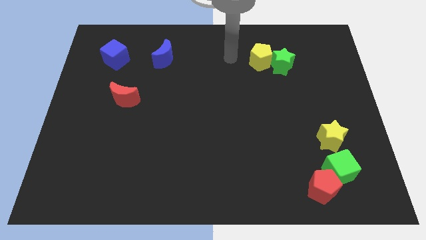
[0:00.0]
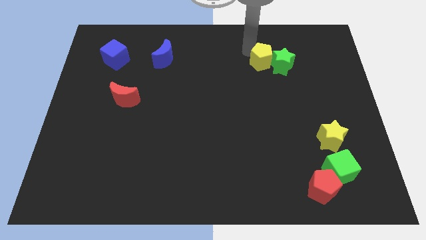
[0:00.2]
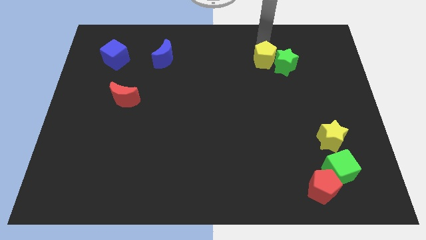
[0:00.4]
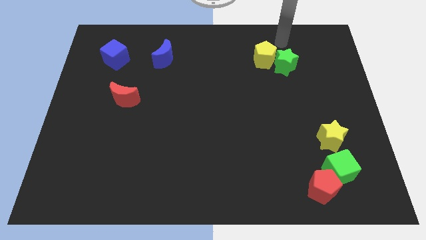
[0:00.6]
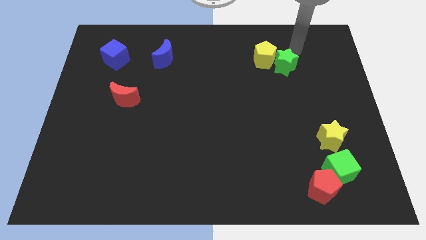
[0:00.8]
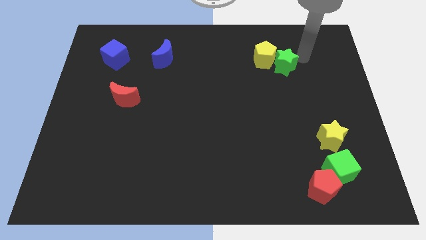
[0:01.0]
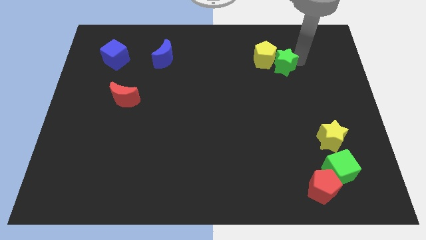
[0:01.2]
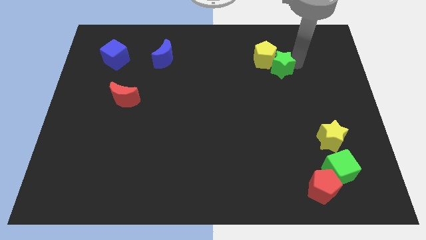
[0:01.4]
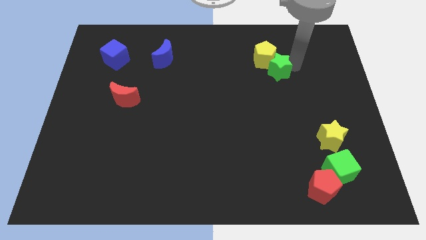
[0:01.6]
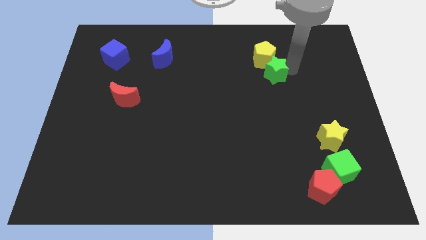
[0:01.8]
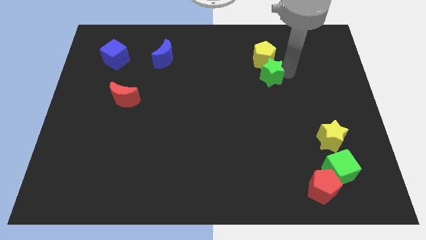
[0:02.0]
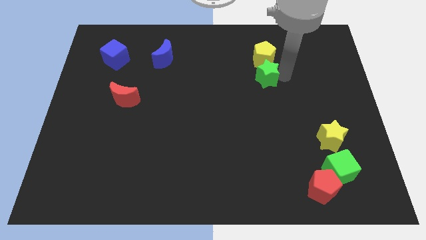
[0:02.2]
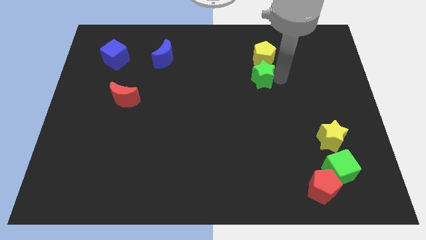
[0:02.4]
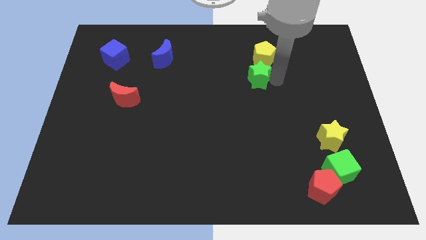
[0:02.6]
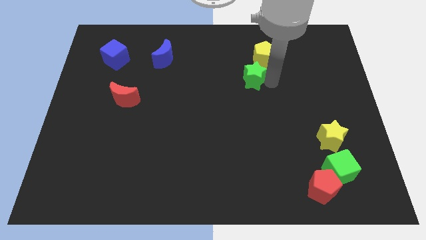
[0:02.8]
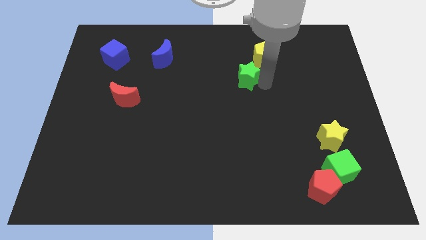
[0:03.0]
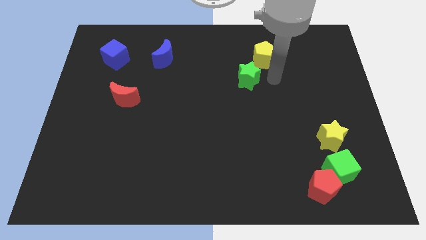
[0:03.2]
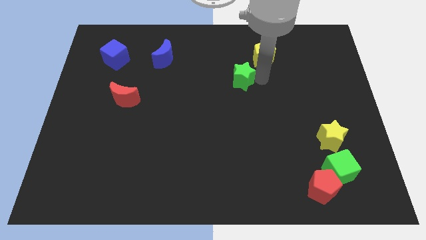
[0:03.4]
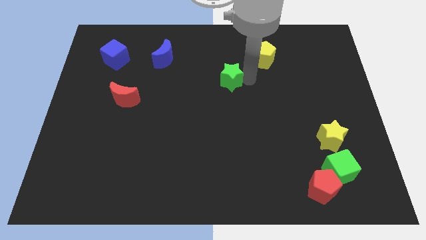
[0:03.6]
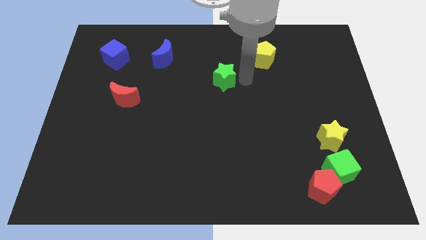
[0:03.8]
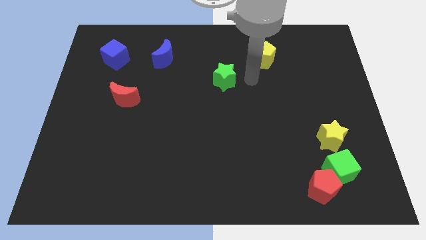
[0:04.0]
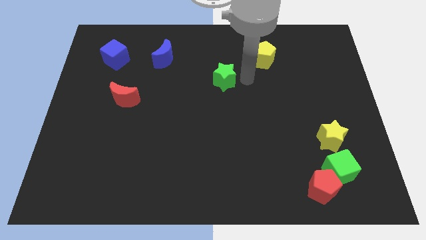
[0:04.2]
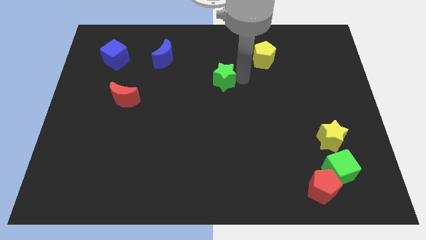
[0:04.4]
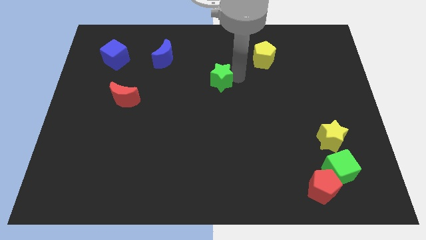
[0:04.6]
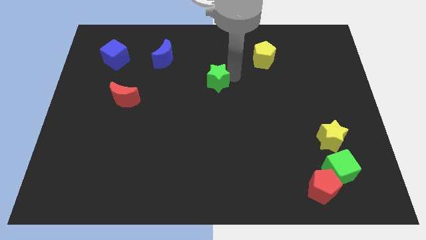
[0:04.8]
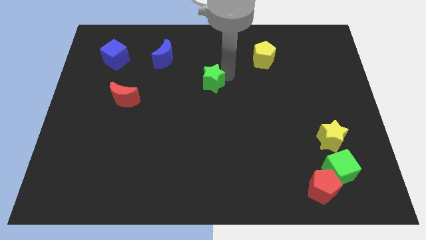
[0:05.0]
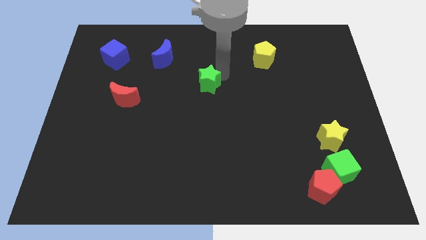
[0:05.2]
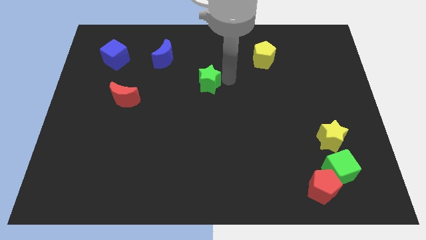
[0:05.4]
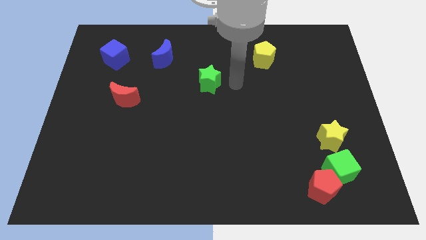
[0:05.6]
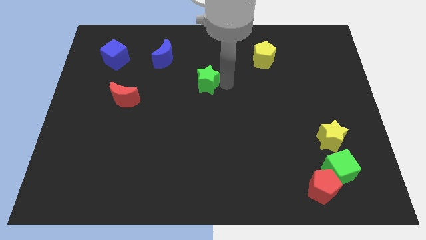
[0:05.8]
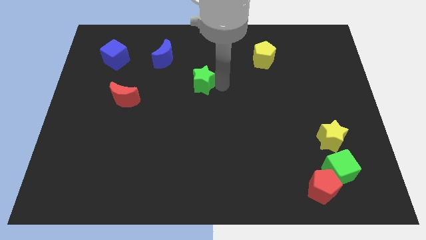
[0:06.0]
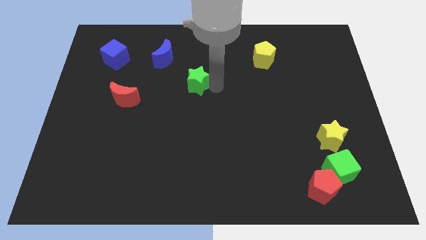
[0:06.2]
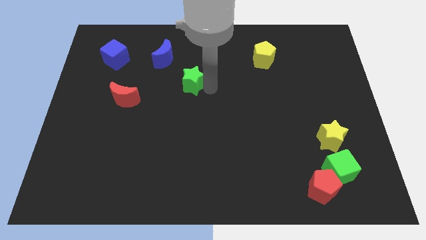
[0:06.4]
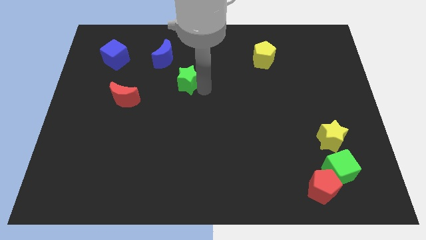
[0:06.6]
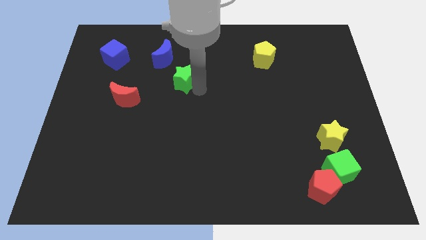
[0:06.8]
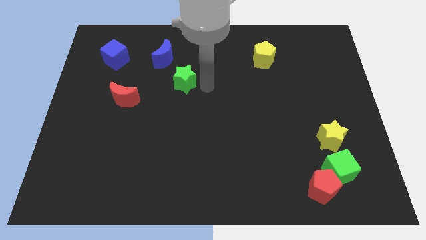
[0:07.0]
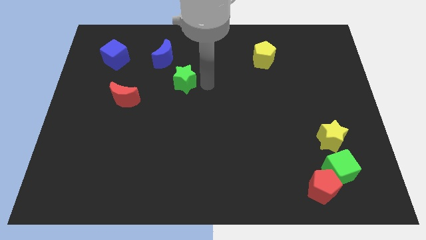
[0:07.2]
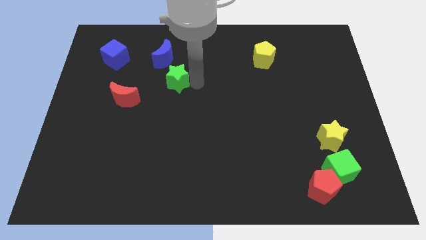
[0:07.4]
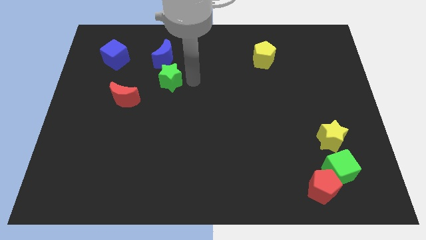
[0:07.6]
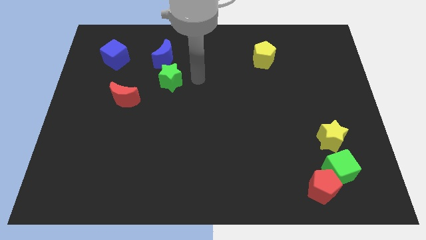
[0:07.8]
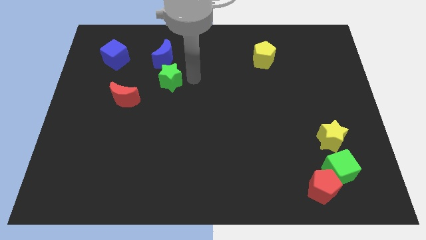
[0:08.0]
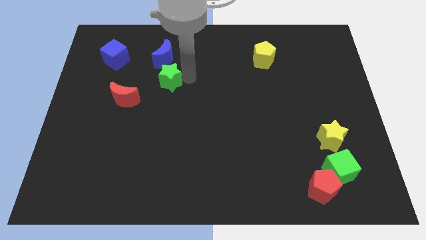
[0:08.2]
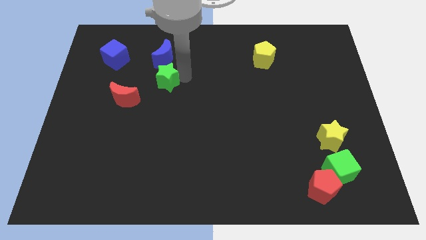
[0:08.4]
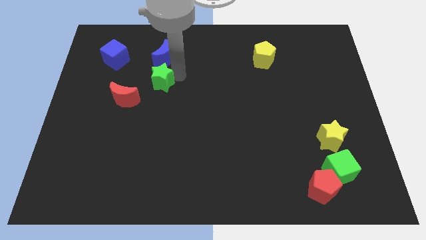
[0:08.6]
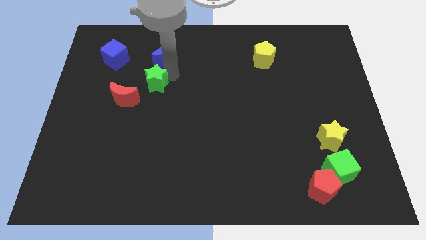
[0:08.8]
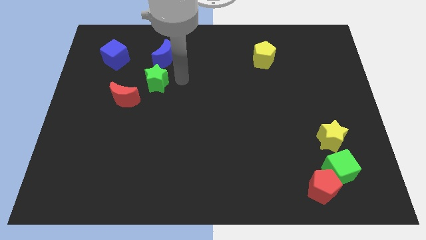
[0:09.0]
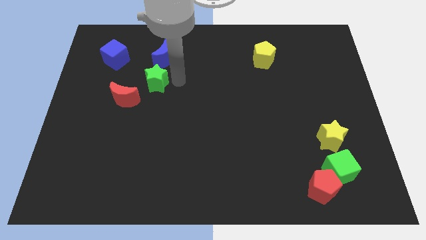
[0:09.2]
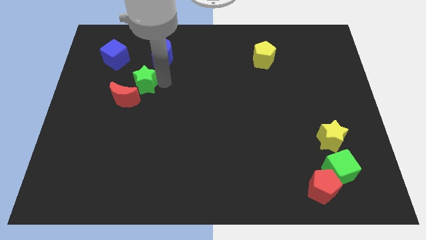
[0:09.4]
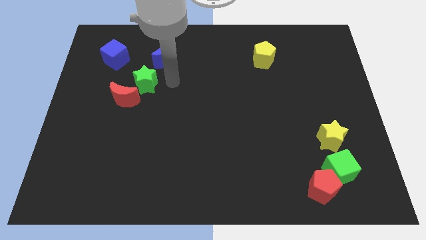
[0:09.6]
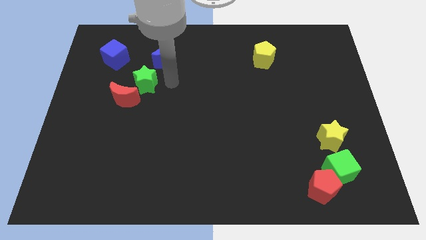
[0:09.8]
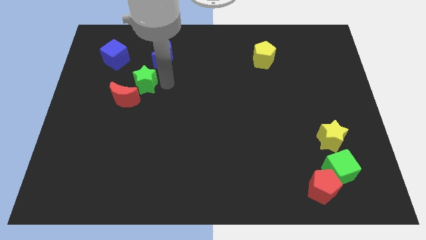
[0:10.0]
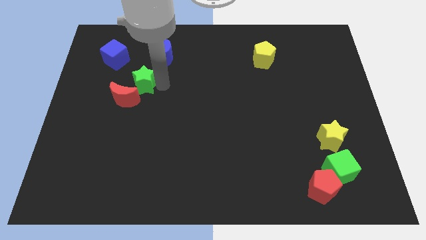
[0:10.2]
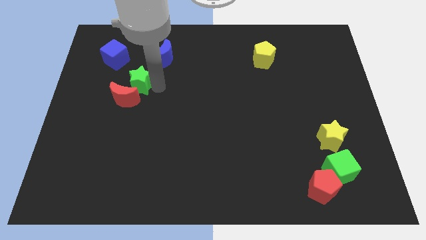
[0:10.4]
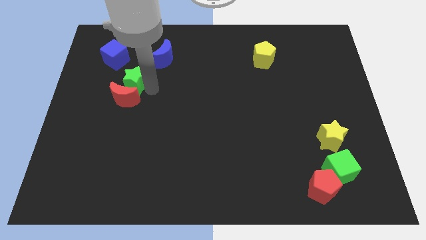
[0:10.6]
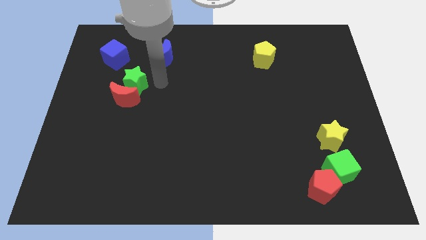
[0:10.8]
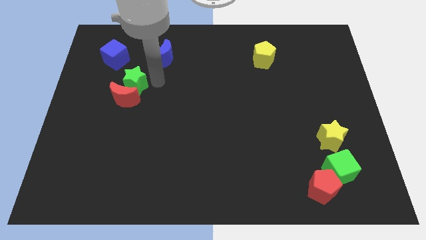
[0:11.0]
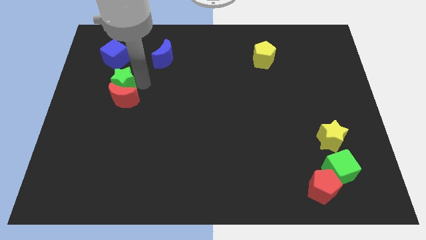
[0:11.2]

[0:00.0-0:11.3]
move the green star to the bottom side of the blue cube

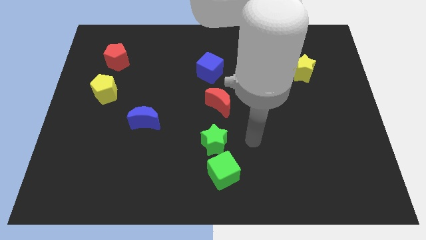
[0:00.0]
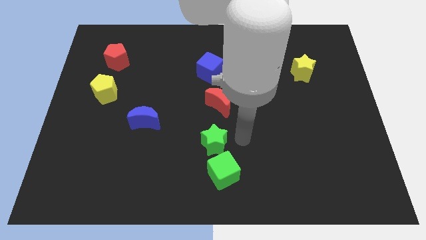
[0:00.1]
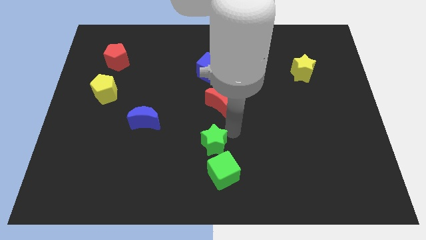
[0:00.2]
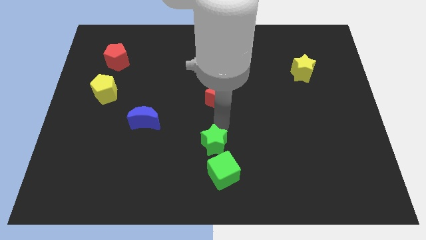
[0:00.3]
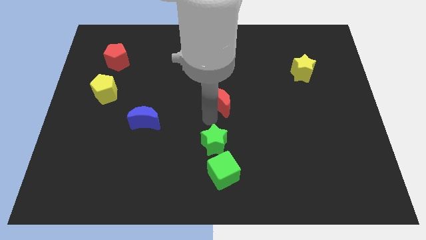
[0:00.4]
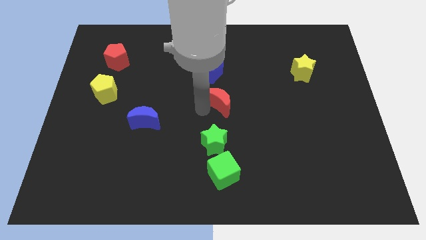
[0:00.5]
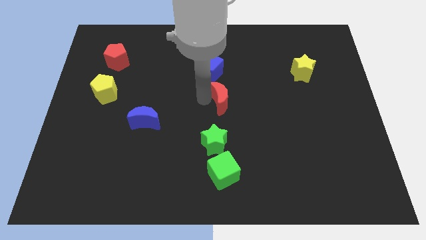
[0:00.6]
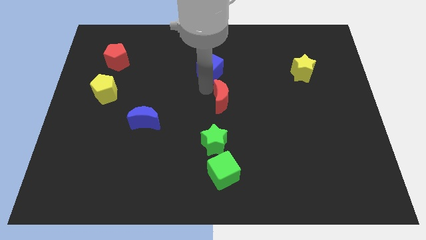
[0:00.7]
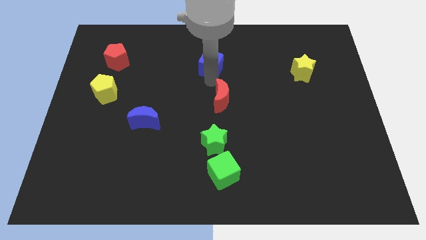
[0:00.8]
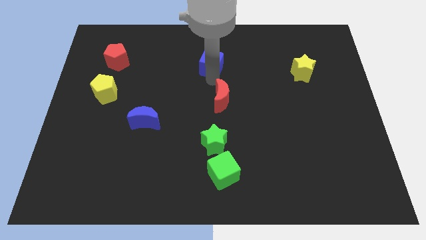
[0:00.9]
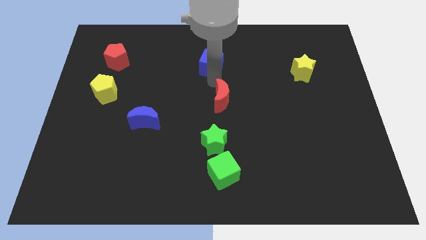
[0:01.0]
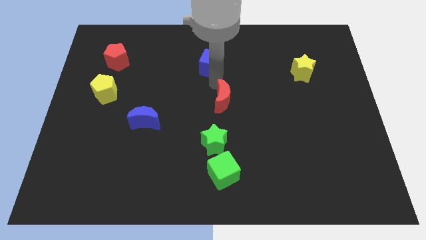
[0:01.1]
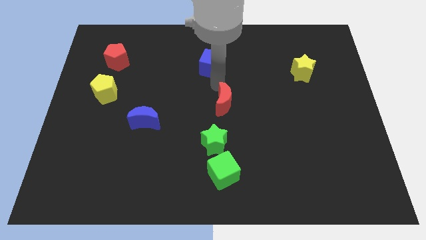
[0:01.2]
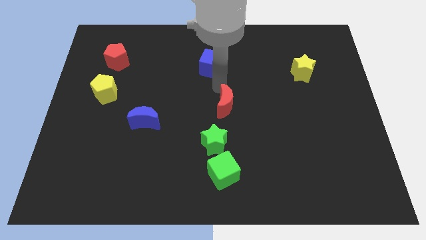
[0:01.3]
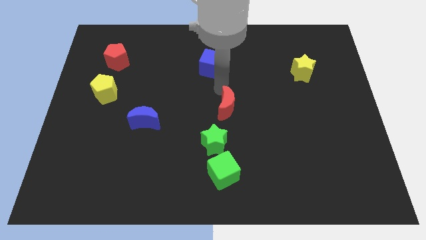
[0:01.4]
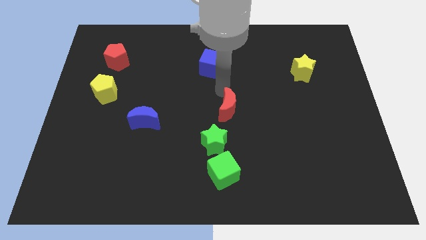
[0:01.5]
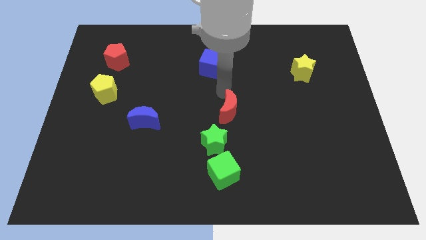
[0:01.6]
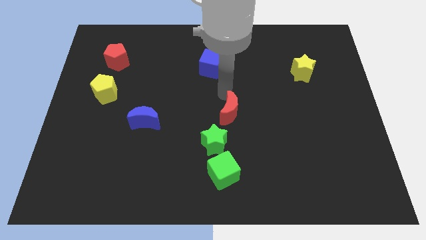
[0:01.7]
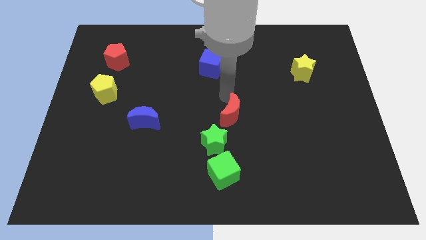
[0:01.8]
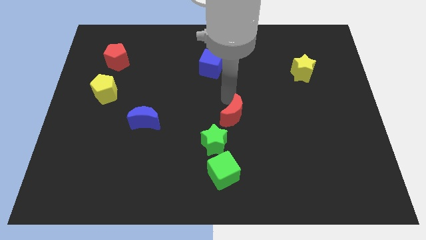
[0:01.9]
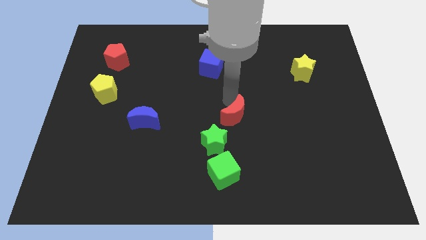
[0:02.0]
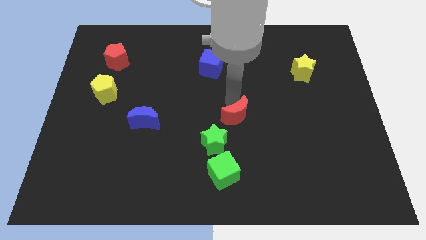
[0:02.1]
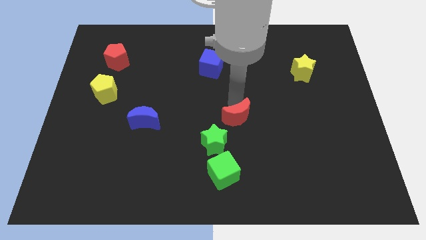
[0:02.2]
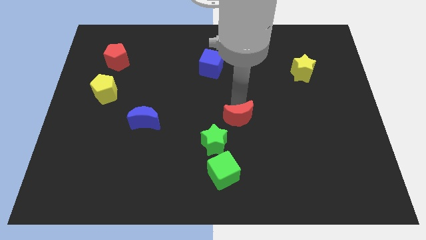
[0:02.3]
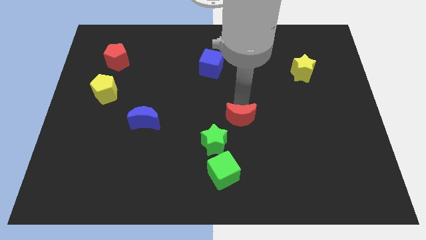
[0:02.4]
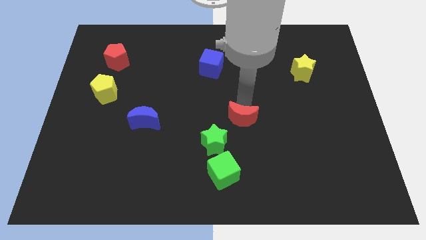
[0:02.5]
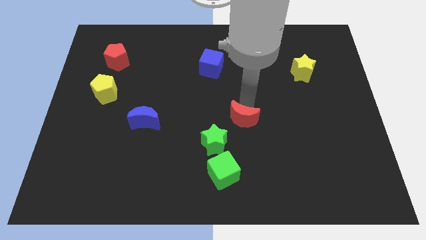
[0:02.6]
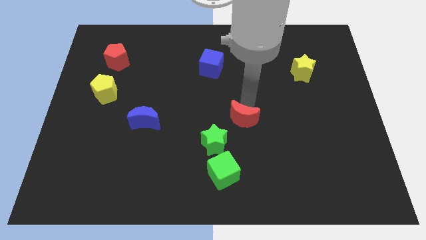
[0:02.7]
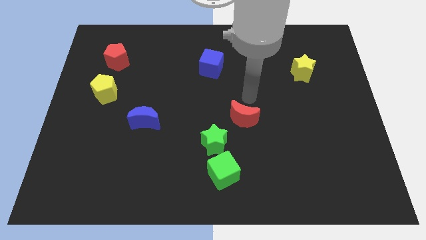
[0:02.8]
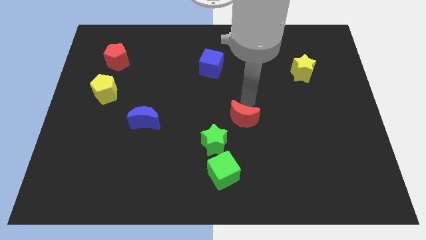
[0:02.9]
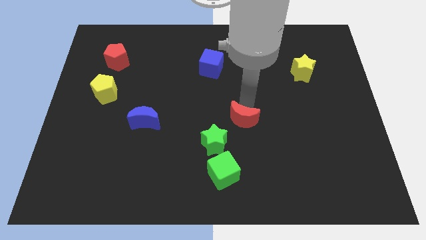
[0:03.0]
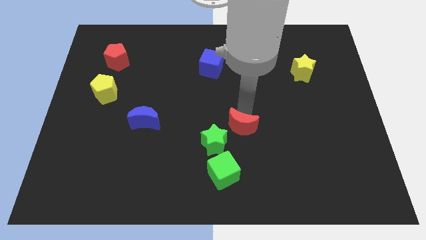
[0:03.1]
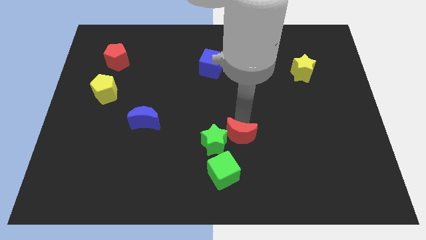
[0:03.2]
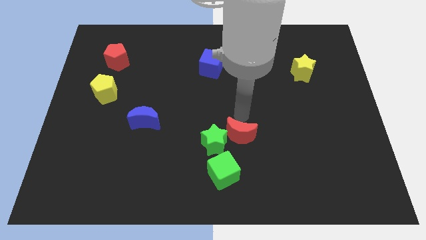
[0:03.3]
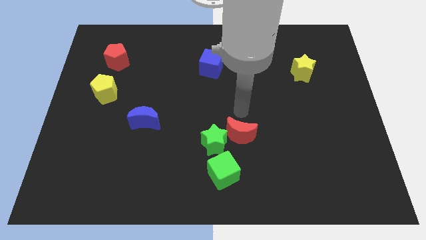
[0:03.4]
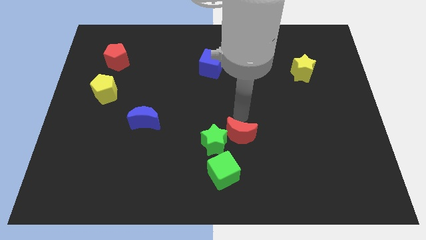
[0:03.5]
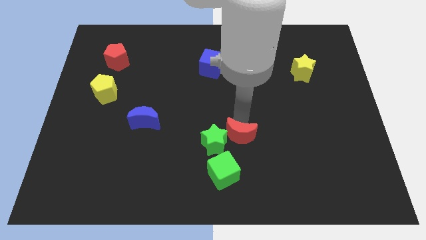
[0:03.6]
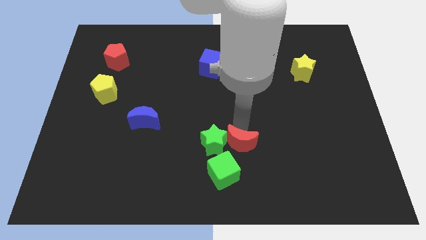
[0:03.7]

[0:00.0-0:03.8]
put the red moon diagonally down and to the right of the green star
